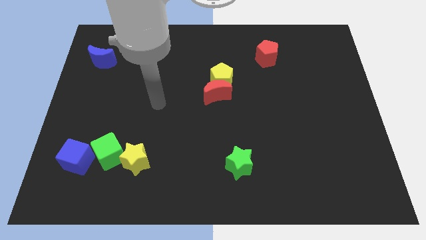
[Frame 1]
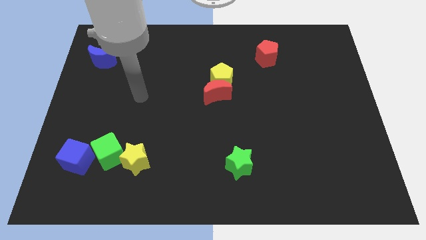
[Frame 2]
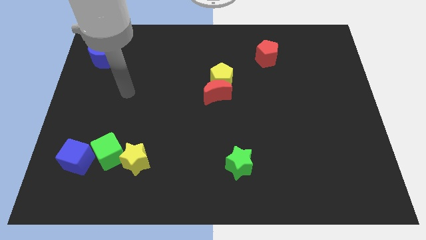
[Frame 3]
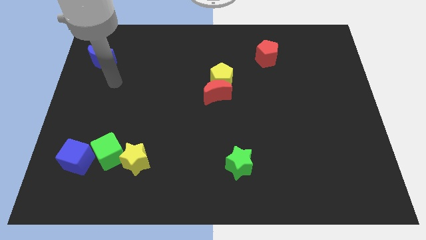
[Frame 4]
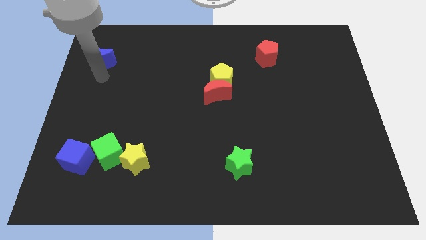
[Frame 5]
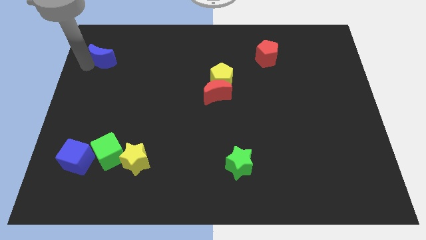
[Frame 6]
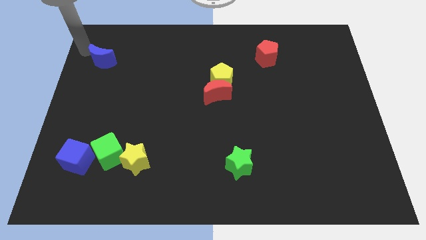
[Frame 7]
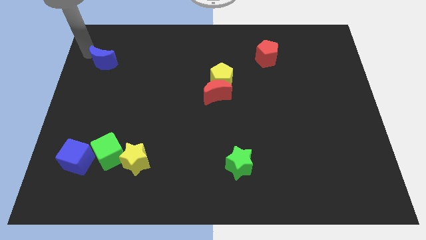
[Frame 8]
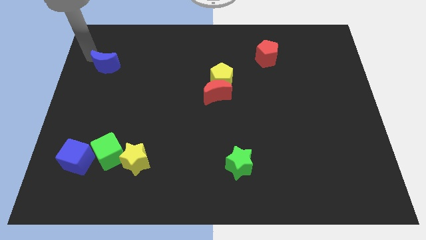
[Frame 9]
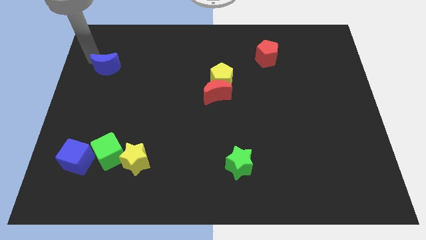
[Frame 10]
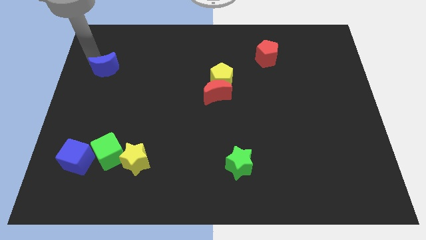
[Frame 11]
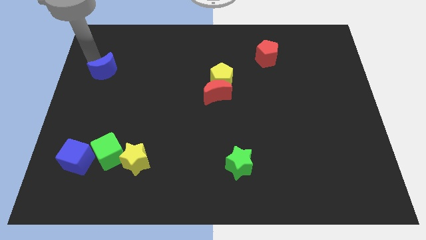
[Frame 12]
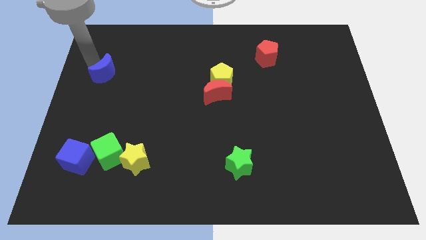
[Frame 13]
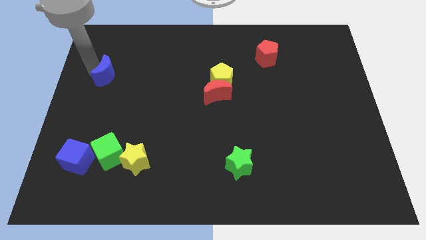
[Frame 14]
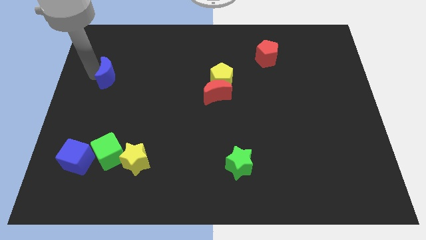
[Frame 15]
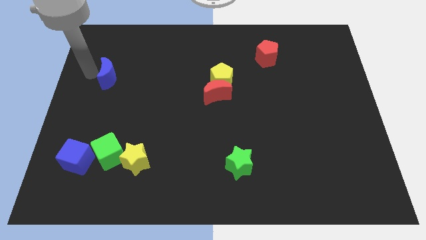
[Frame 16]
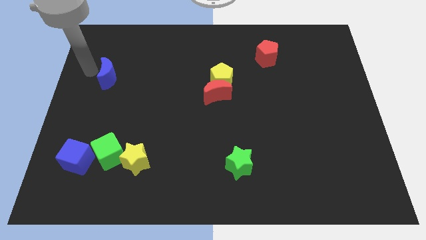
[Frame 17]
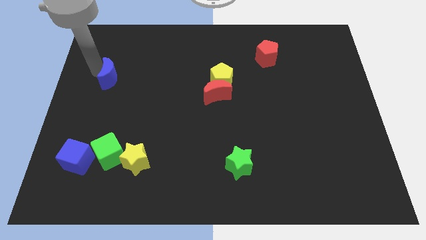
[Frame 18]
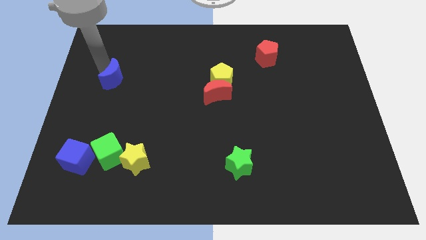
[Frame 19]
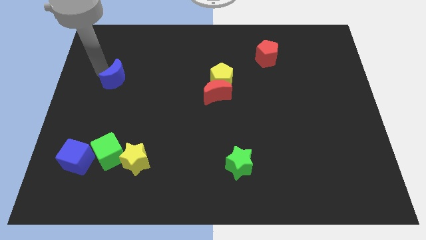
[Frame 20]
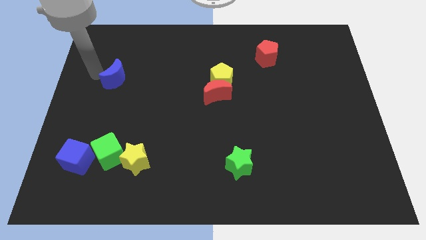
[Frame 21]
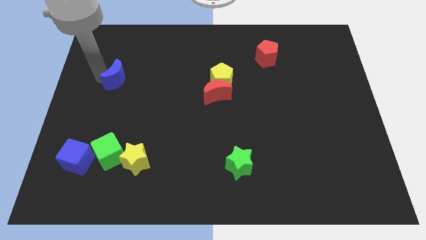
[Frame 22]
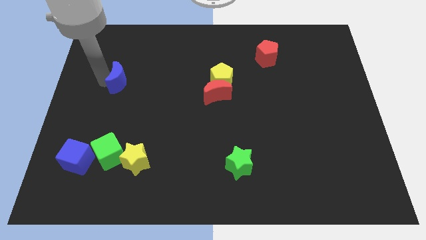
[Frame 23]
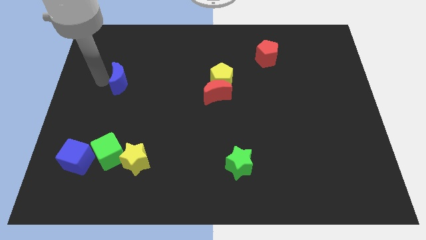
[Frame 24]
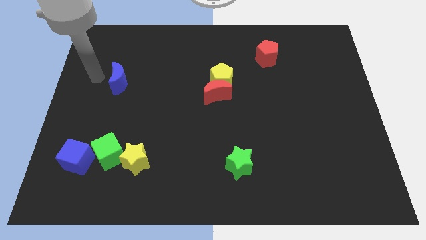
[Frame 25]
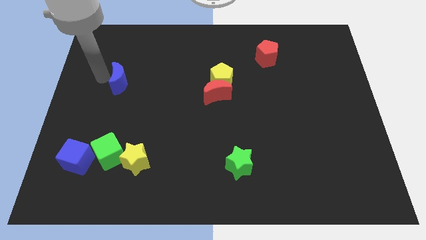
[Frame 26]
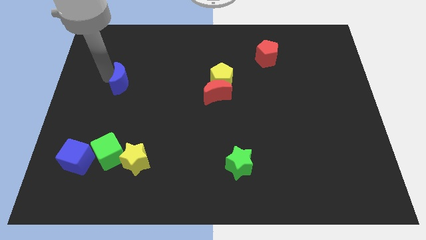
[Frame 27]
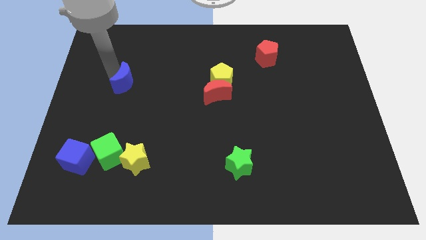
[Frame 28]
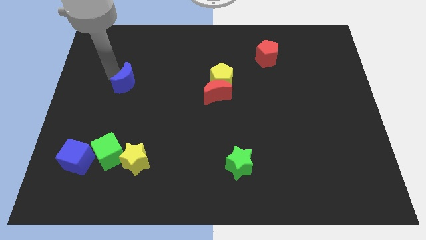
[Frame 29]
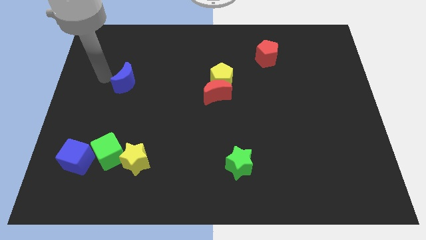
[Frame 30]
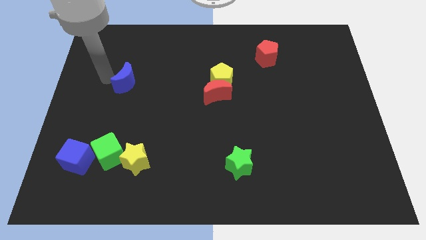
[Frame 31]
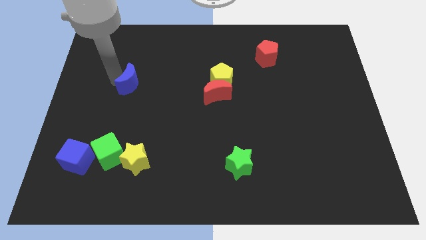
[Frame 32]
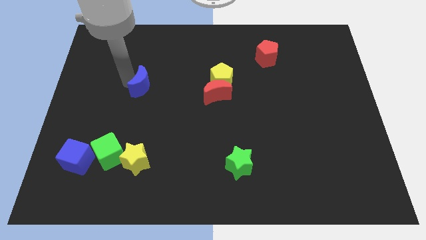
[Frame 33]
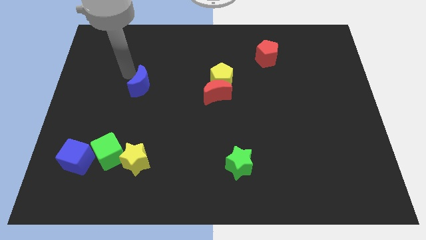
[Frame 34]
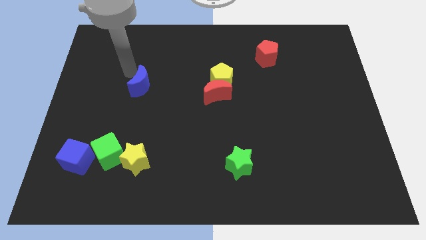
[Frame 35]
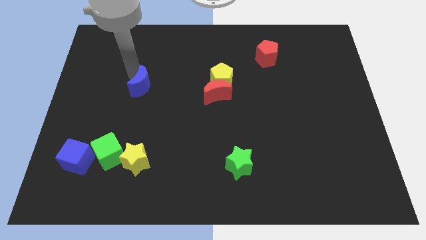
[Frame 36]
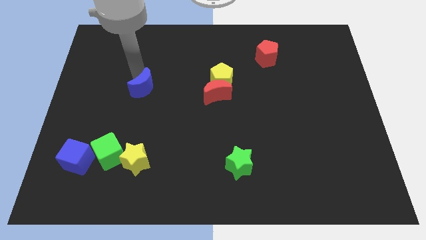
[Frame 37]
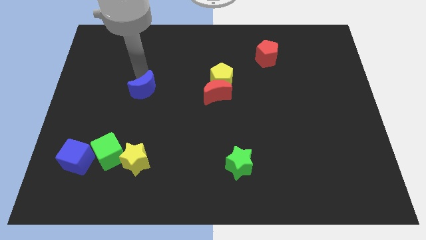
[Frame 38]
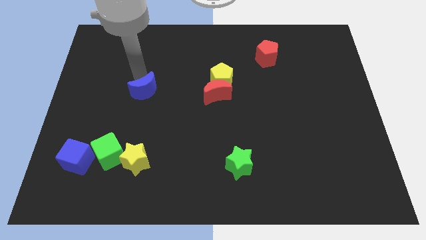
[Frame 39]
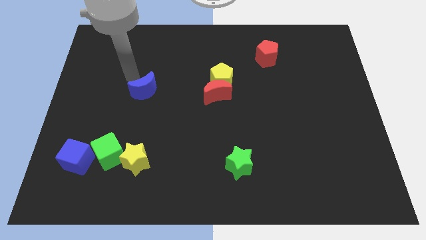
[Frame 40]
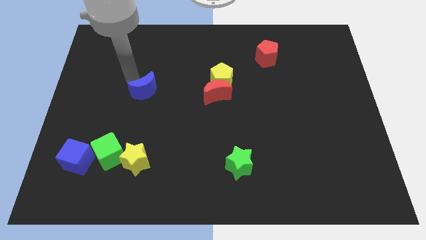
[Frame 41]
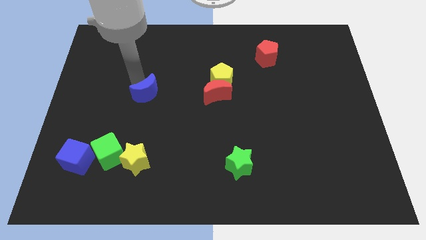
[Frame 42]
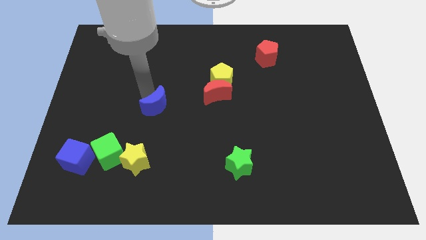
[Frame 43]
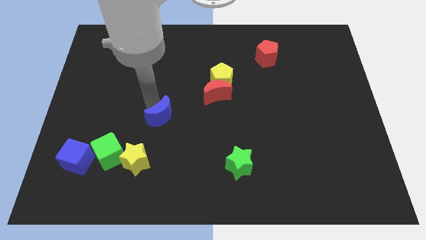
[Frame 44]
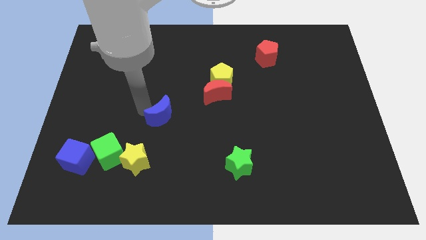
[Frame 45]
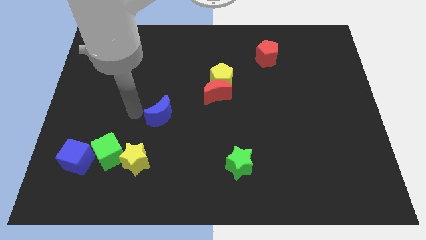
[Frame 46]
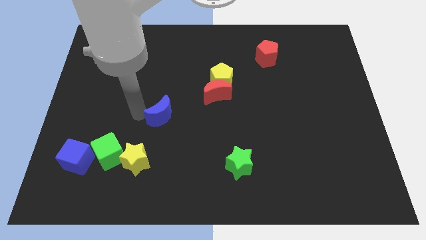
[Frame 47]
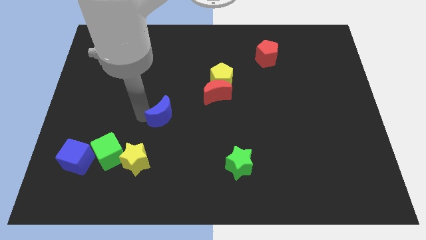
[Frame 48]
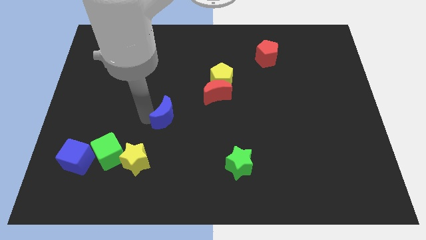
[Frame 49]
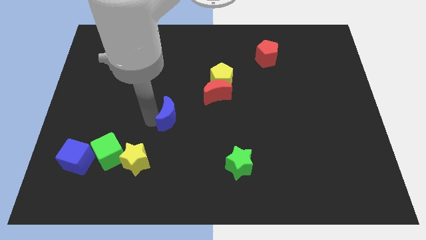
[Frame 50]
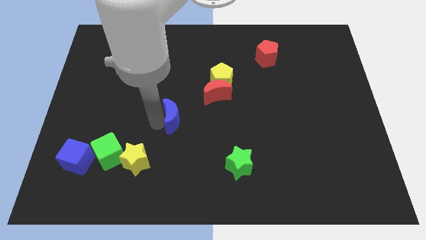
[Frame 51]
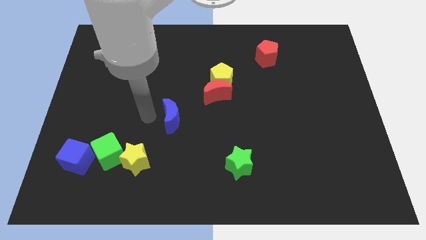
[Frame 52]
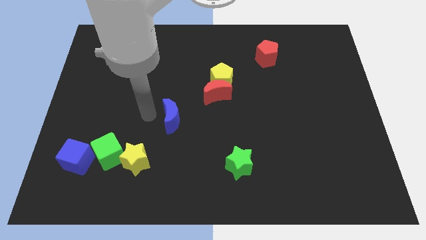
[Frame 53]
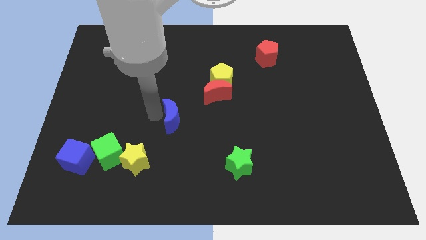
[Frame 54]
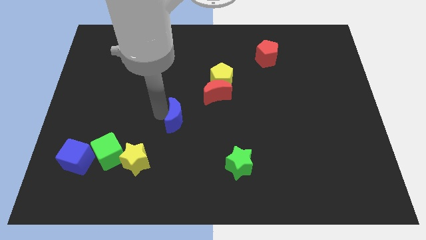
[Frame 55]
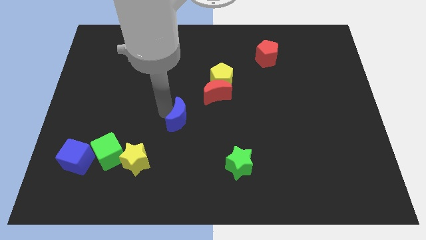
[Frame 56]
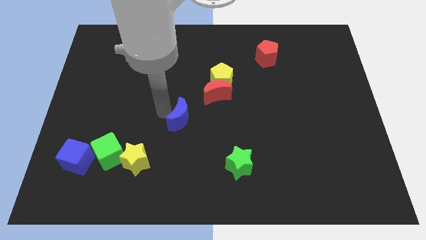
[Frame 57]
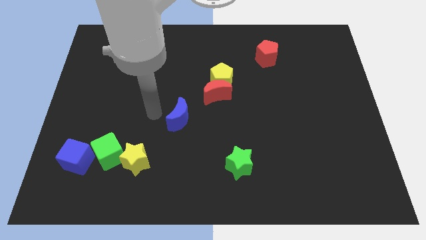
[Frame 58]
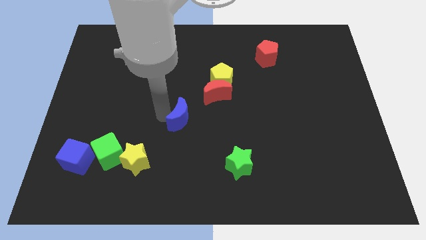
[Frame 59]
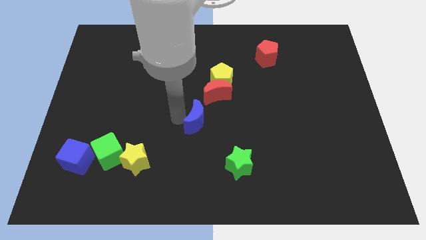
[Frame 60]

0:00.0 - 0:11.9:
slide the blue moon to the bottom of the red moon

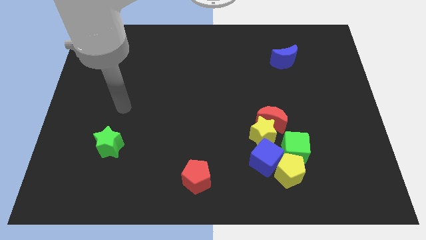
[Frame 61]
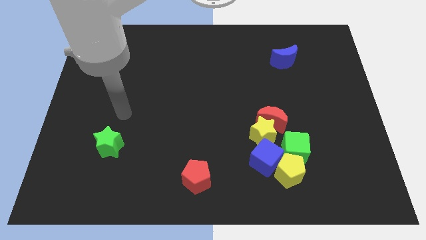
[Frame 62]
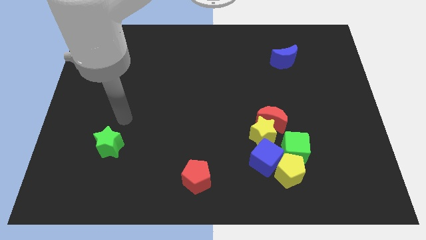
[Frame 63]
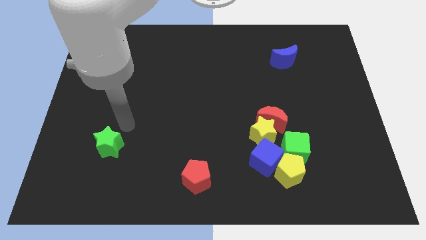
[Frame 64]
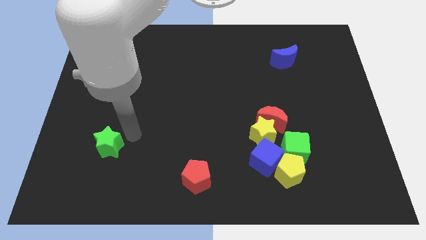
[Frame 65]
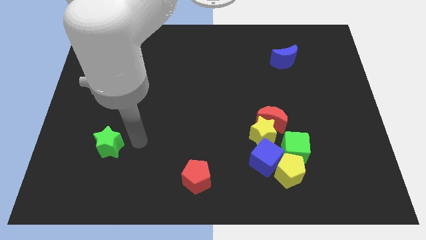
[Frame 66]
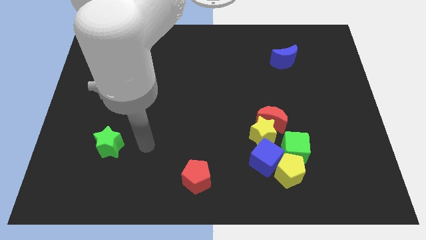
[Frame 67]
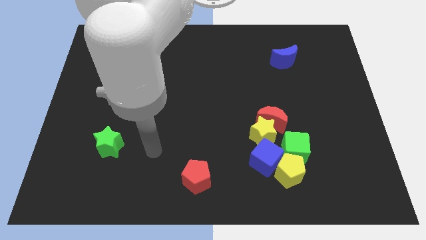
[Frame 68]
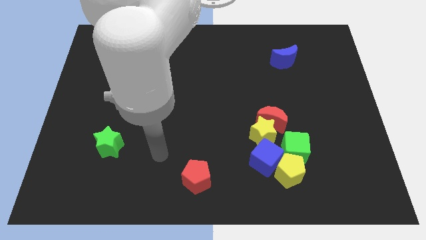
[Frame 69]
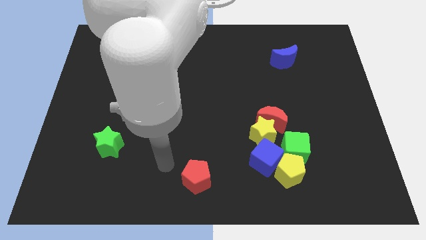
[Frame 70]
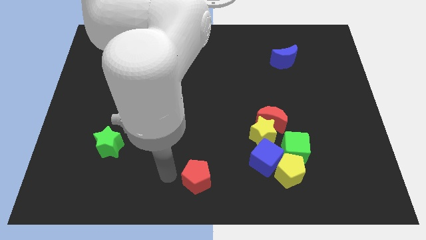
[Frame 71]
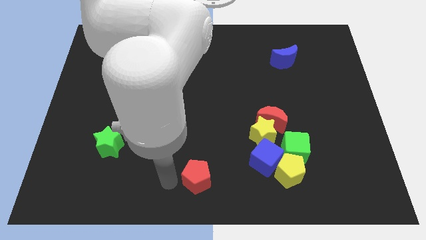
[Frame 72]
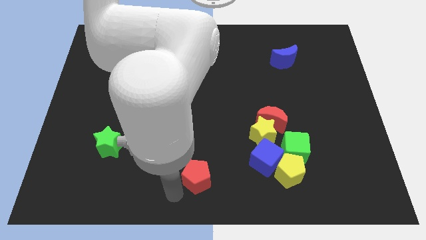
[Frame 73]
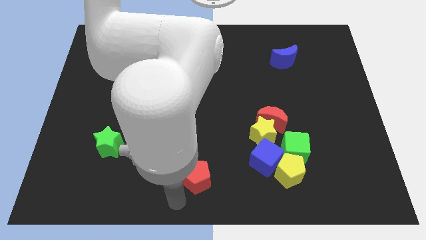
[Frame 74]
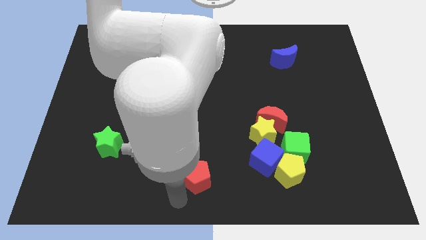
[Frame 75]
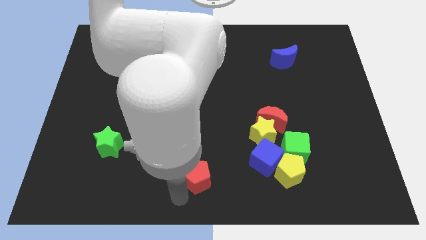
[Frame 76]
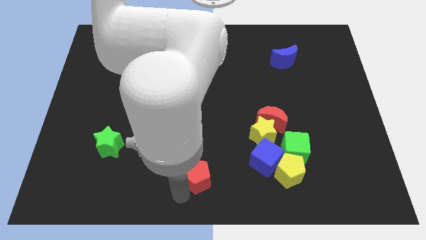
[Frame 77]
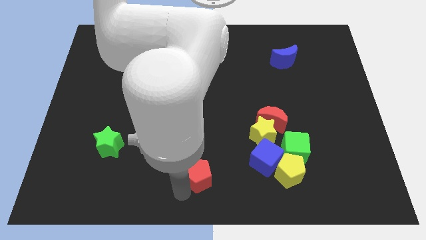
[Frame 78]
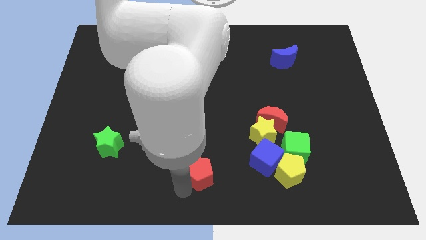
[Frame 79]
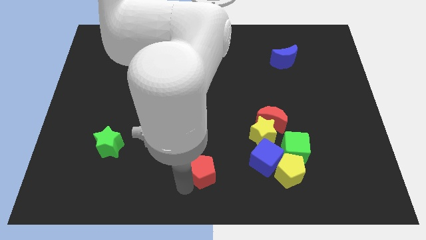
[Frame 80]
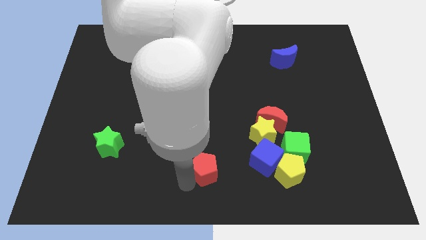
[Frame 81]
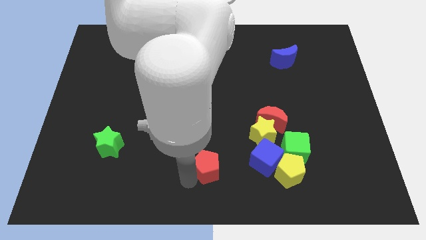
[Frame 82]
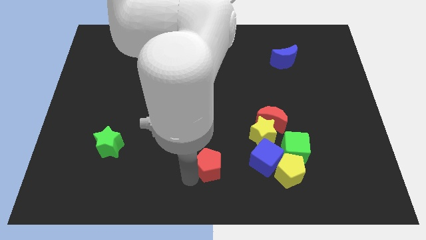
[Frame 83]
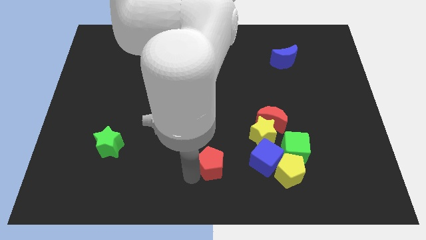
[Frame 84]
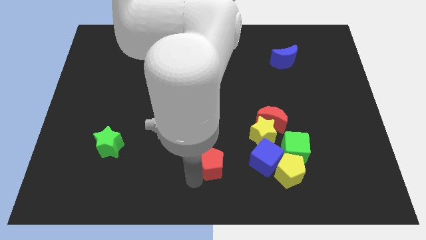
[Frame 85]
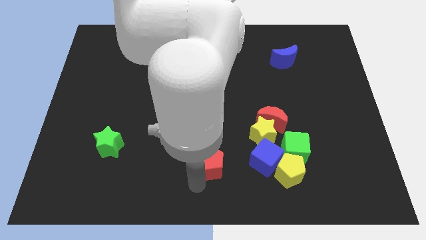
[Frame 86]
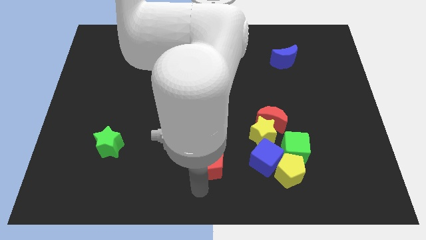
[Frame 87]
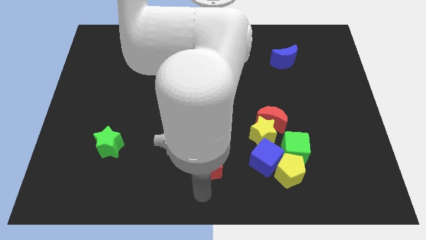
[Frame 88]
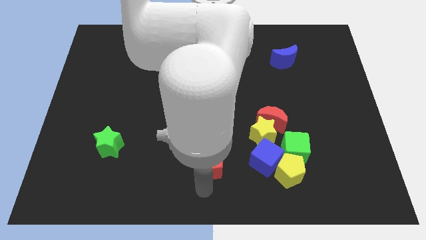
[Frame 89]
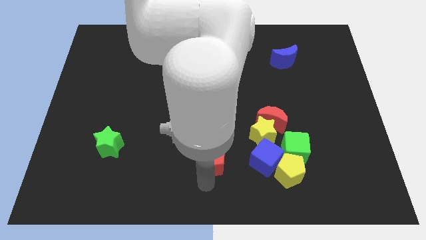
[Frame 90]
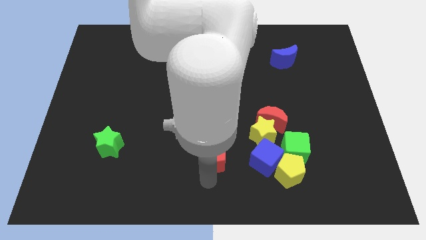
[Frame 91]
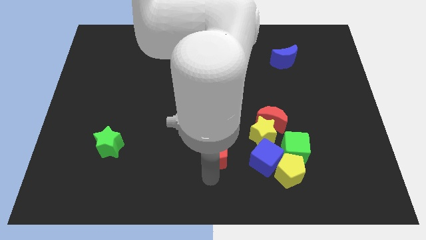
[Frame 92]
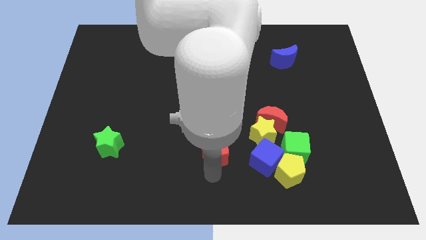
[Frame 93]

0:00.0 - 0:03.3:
put the red pentagon left of the yellow star
